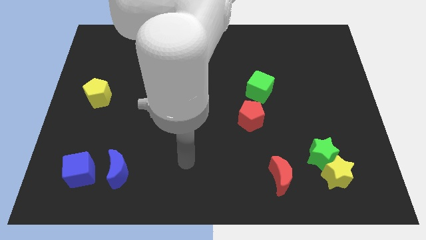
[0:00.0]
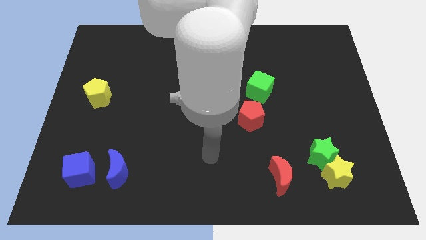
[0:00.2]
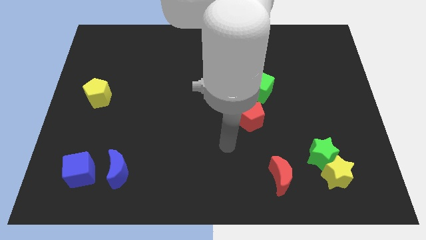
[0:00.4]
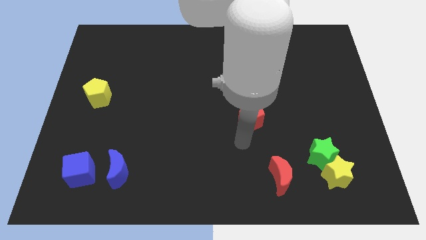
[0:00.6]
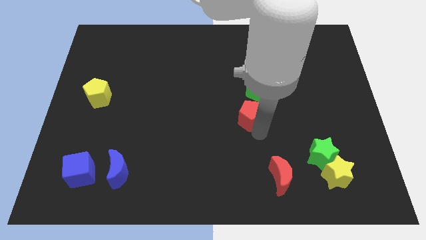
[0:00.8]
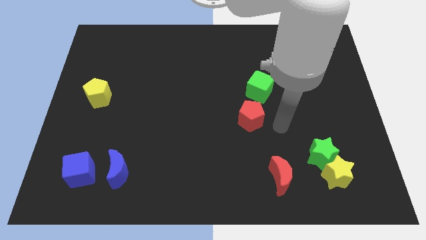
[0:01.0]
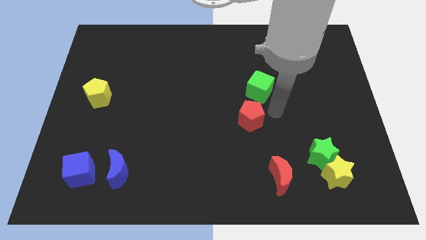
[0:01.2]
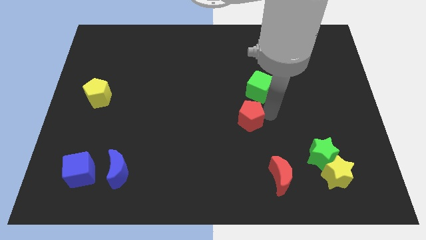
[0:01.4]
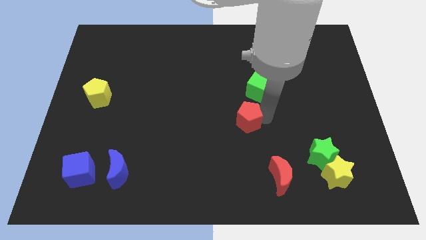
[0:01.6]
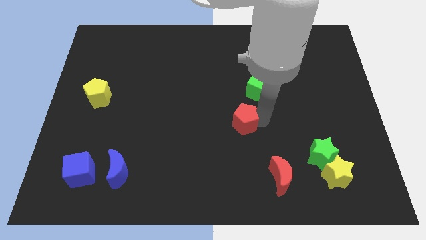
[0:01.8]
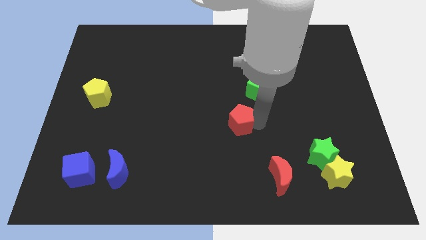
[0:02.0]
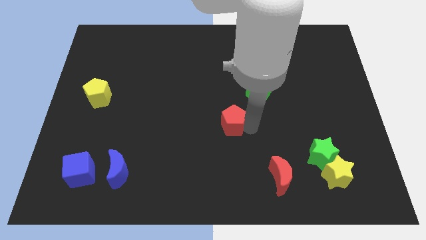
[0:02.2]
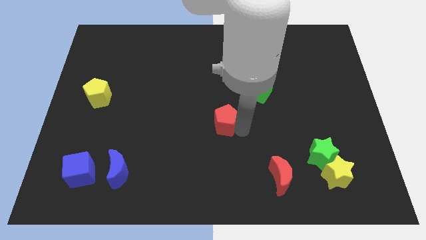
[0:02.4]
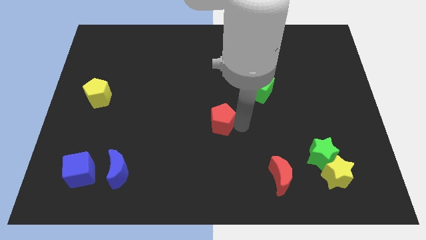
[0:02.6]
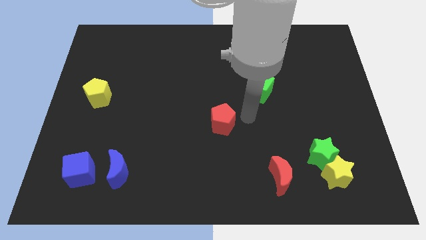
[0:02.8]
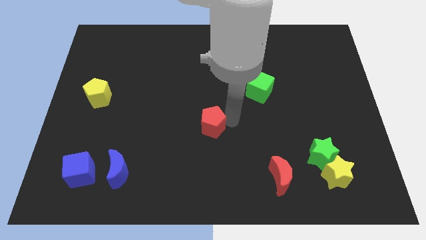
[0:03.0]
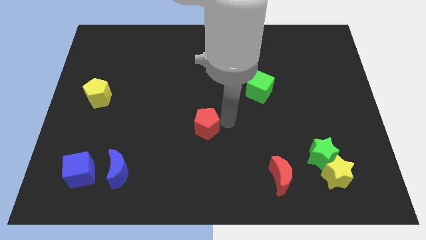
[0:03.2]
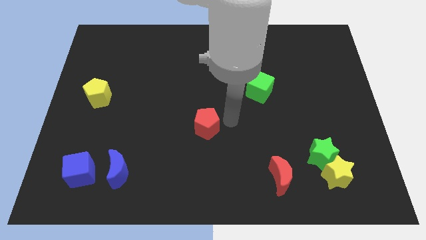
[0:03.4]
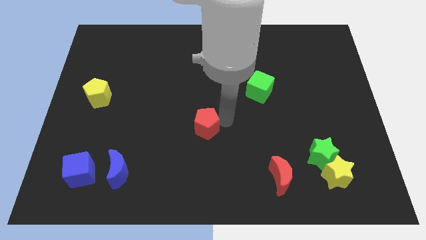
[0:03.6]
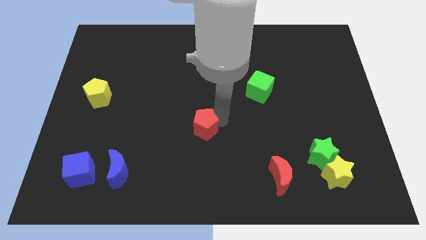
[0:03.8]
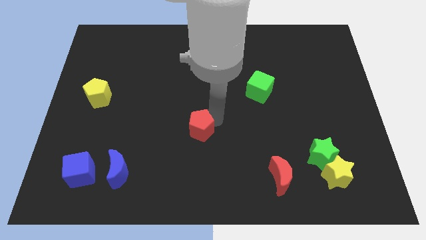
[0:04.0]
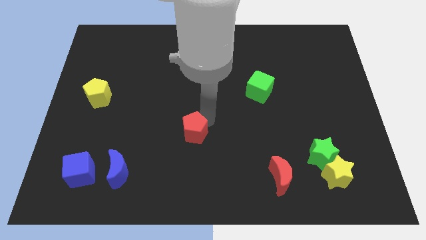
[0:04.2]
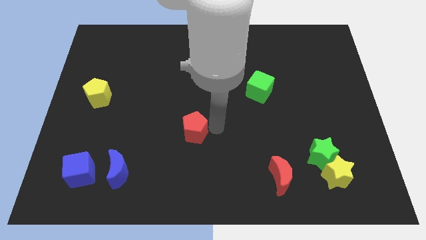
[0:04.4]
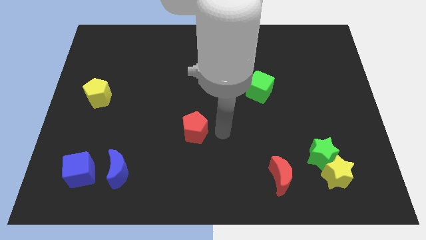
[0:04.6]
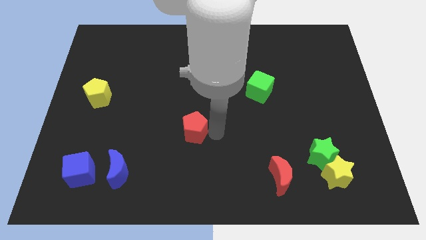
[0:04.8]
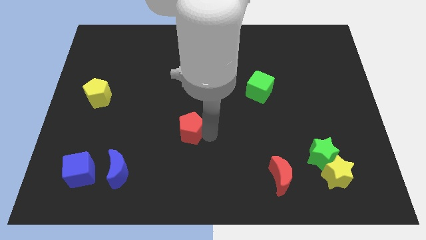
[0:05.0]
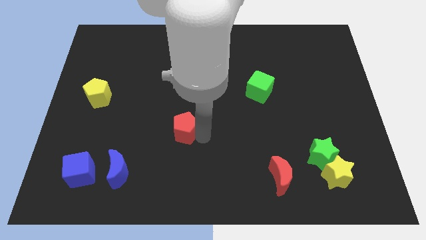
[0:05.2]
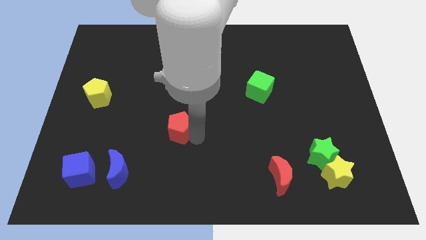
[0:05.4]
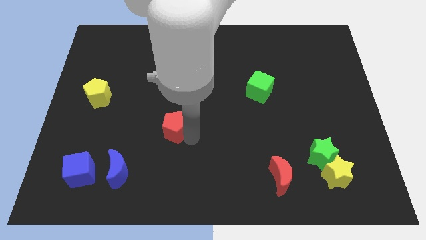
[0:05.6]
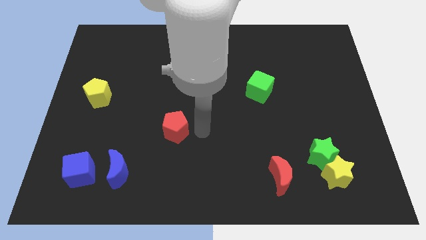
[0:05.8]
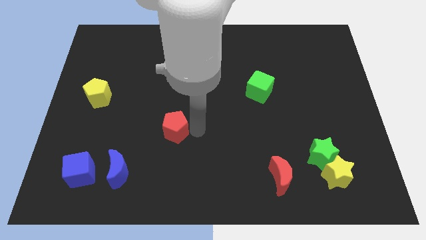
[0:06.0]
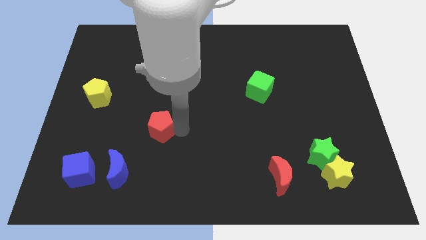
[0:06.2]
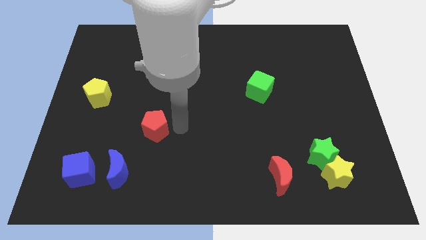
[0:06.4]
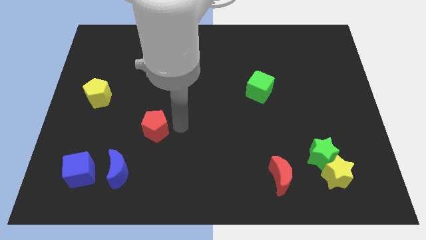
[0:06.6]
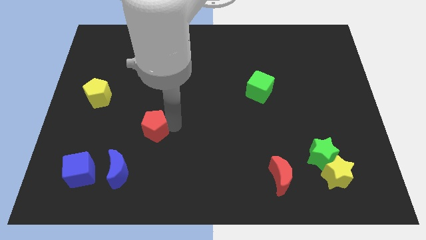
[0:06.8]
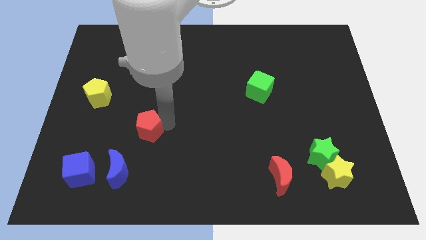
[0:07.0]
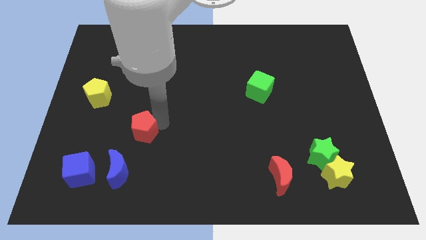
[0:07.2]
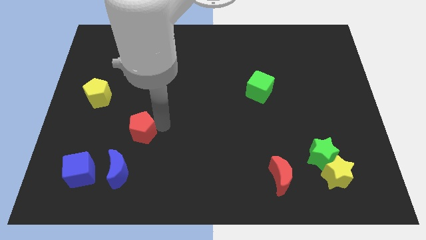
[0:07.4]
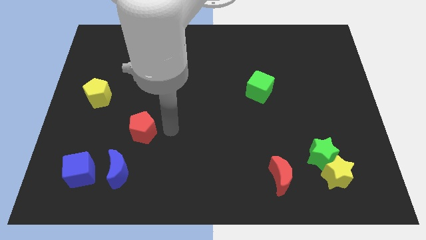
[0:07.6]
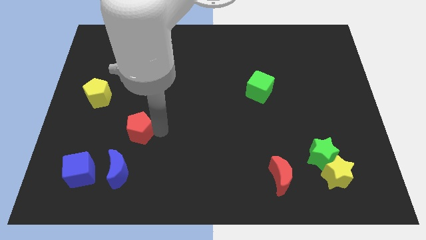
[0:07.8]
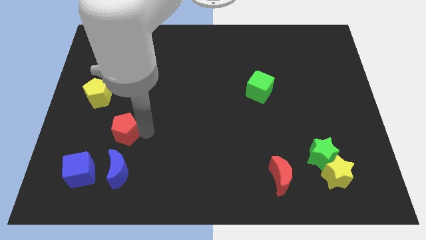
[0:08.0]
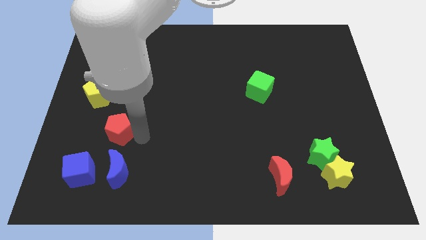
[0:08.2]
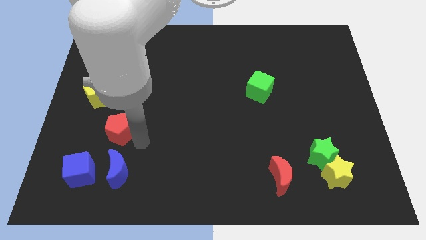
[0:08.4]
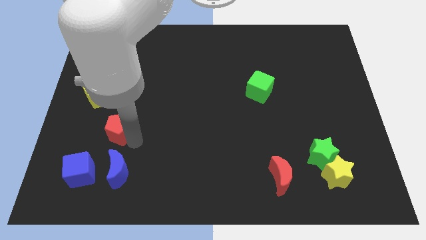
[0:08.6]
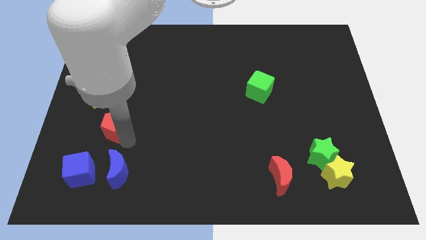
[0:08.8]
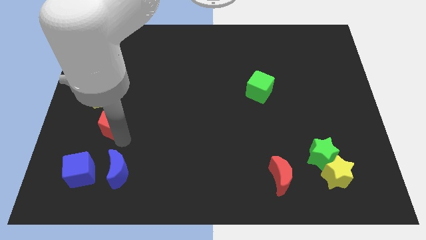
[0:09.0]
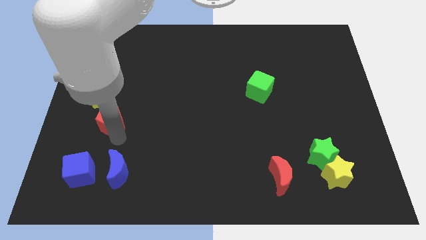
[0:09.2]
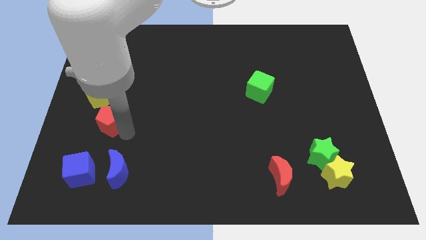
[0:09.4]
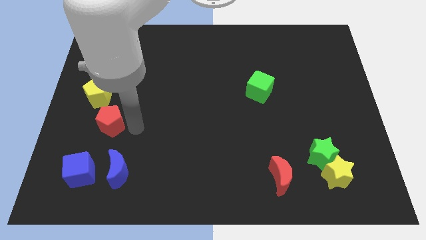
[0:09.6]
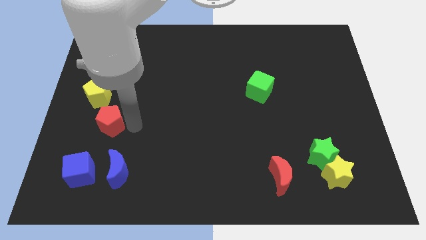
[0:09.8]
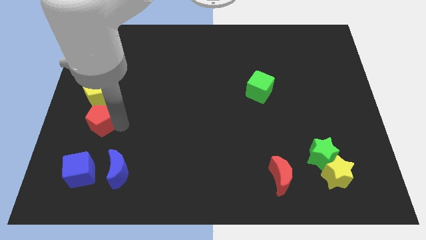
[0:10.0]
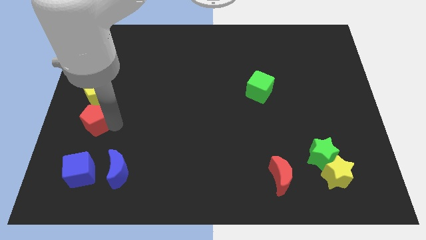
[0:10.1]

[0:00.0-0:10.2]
put the red pentagon to the left side of the board

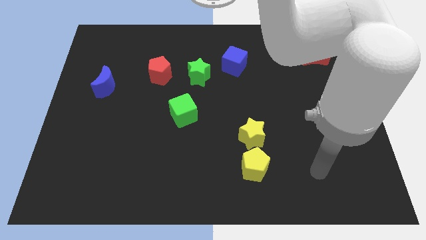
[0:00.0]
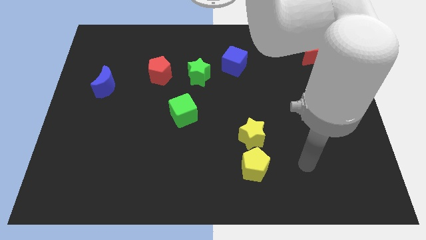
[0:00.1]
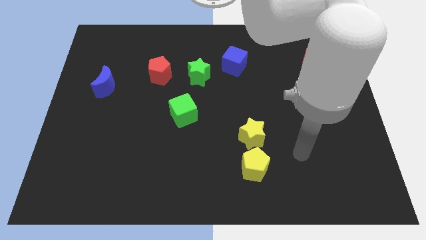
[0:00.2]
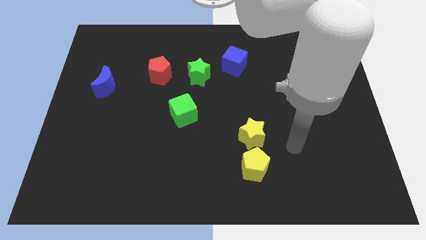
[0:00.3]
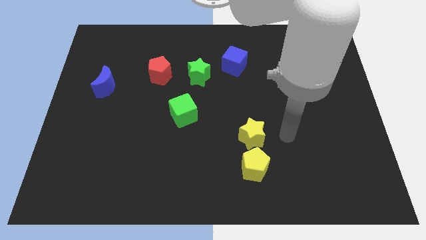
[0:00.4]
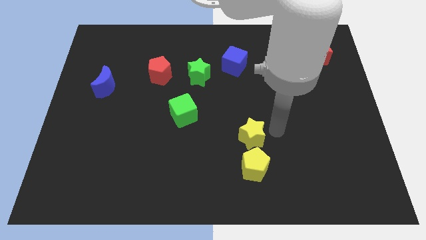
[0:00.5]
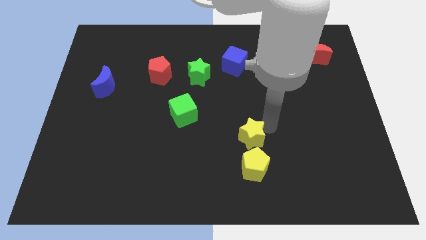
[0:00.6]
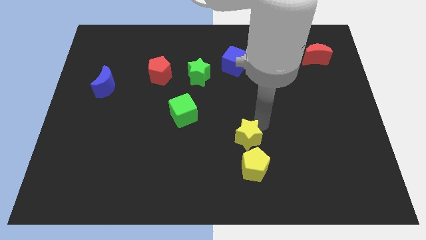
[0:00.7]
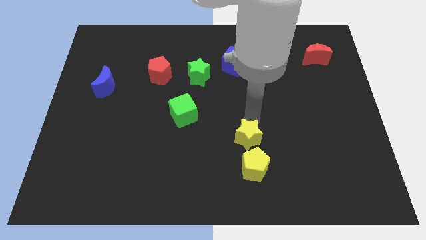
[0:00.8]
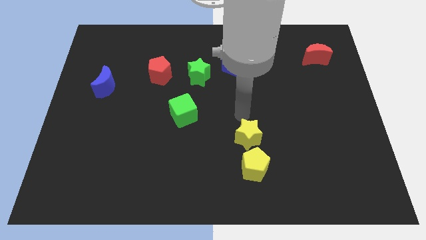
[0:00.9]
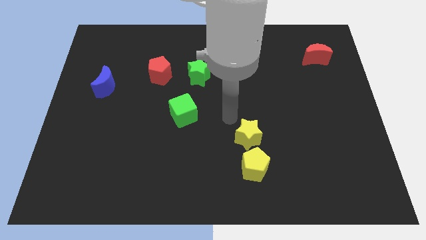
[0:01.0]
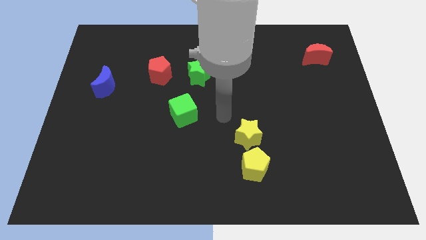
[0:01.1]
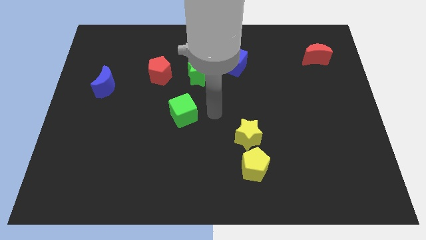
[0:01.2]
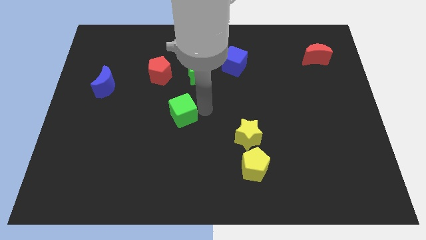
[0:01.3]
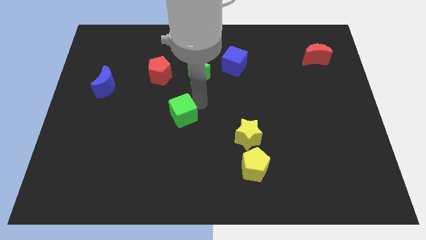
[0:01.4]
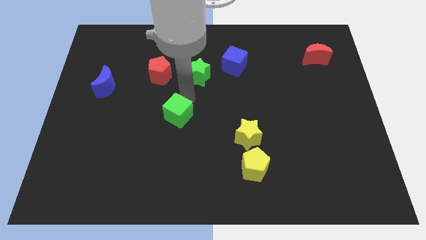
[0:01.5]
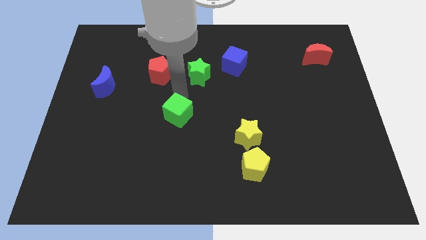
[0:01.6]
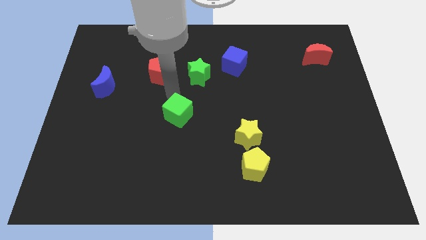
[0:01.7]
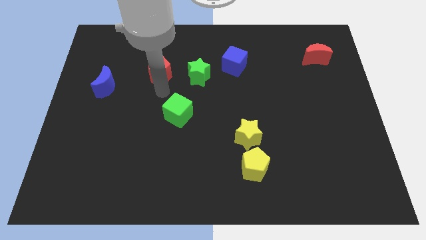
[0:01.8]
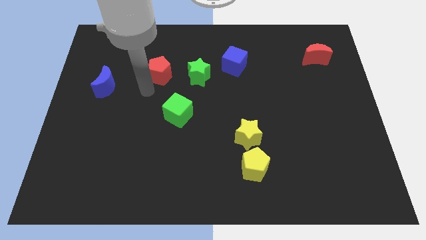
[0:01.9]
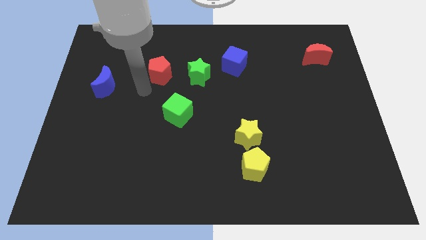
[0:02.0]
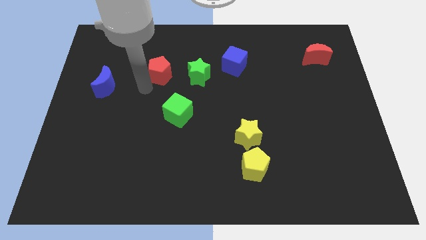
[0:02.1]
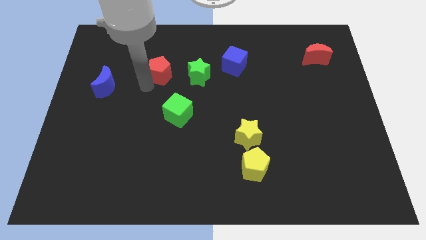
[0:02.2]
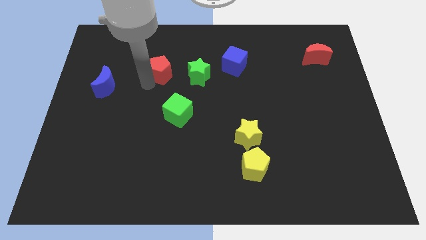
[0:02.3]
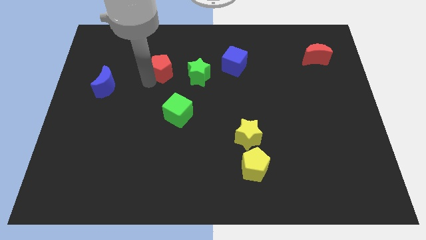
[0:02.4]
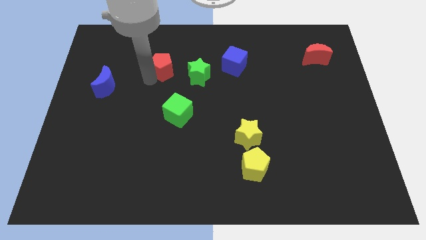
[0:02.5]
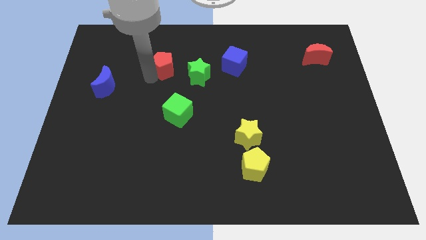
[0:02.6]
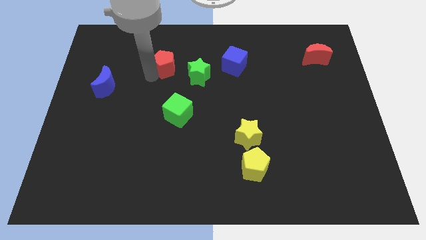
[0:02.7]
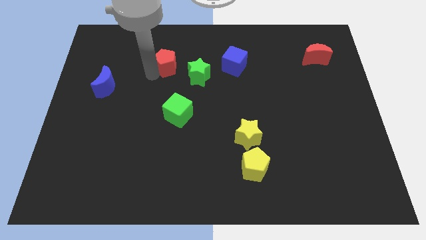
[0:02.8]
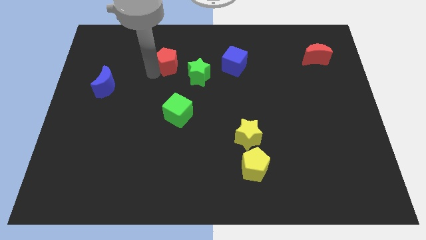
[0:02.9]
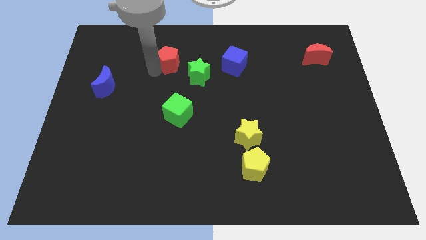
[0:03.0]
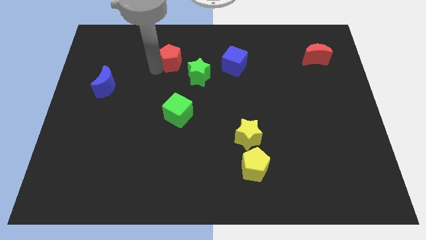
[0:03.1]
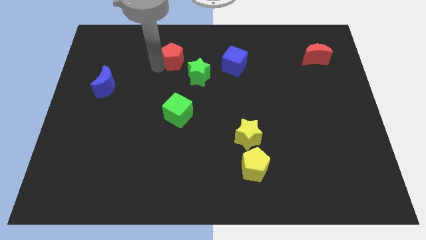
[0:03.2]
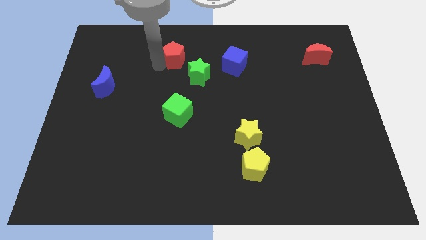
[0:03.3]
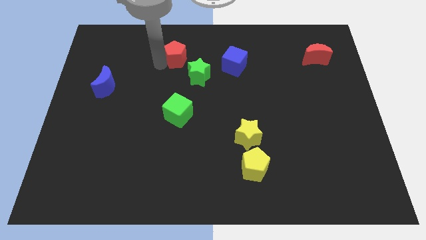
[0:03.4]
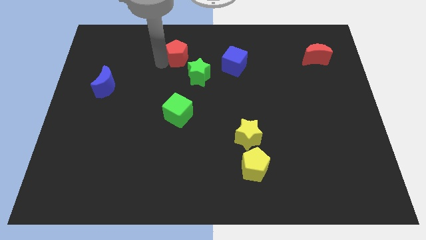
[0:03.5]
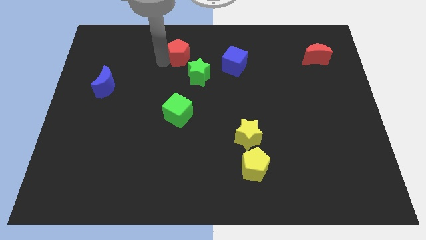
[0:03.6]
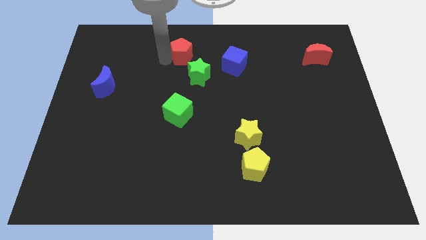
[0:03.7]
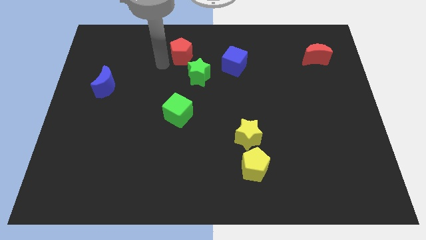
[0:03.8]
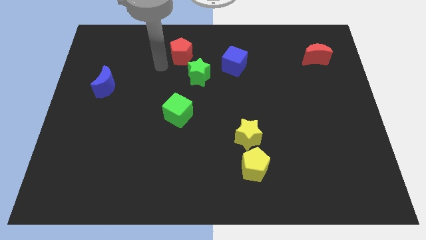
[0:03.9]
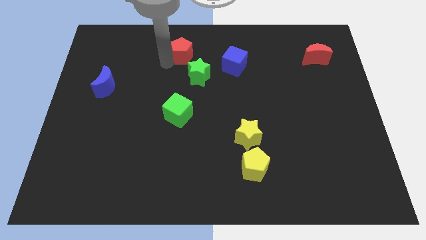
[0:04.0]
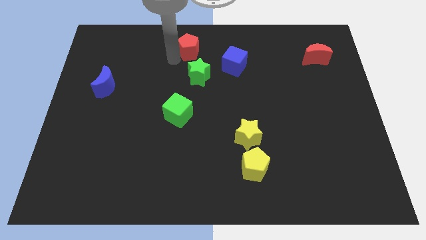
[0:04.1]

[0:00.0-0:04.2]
push the red pentagon to the top side
